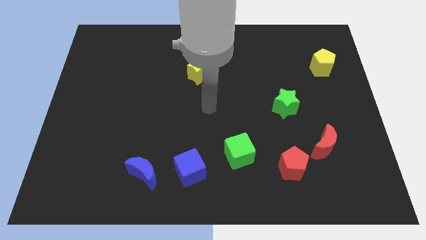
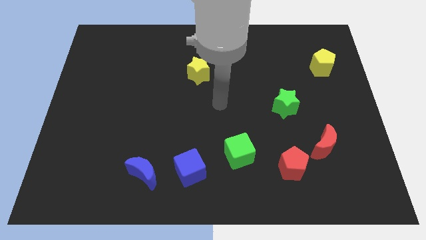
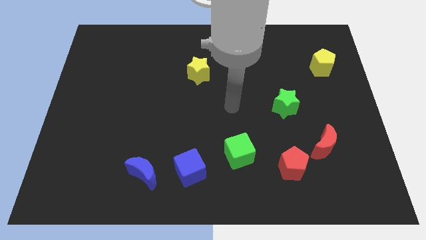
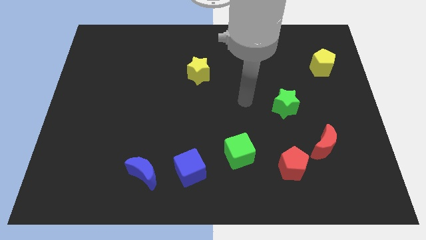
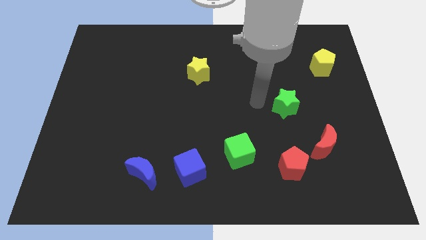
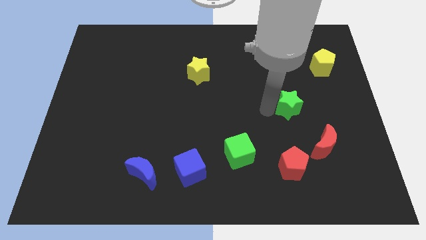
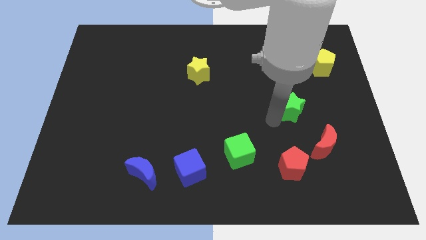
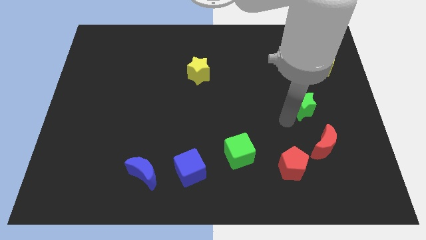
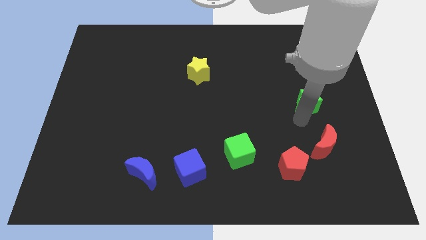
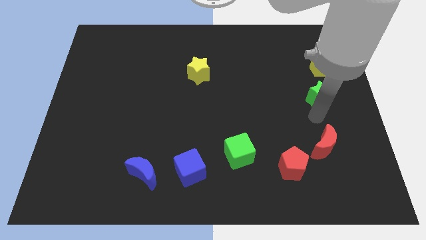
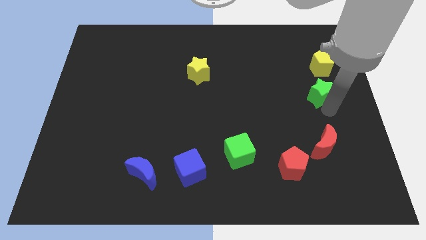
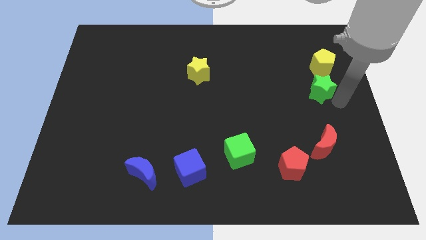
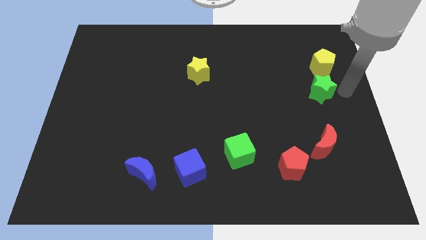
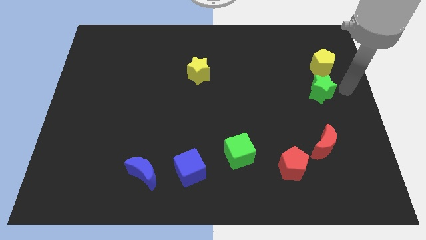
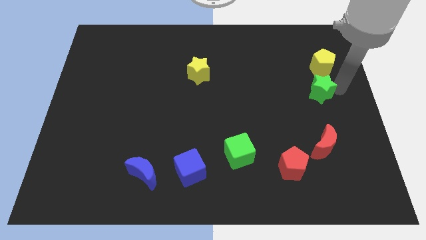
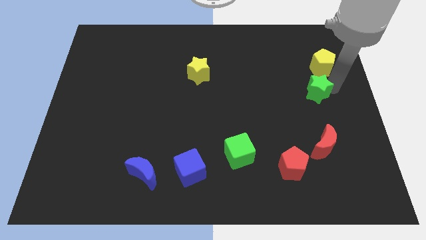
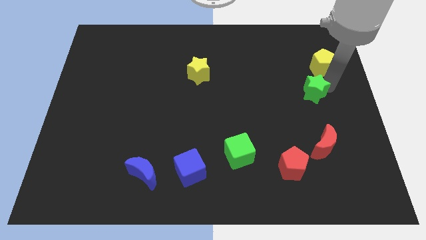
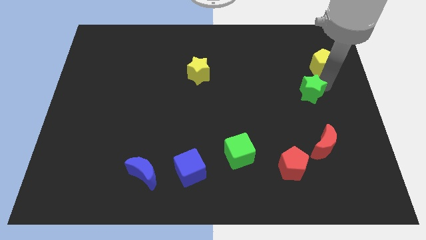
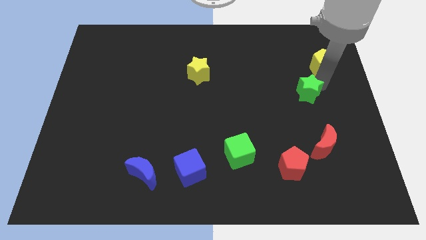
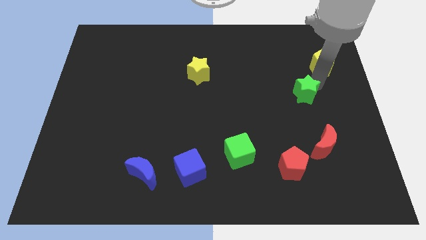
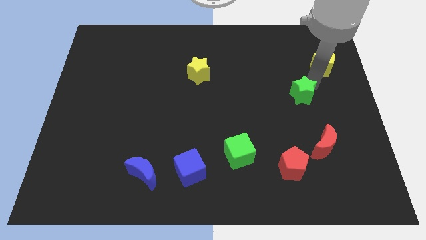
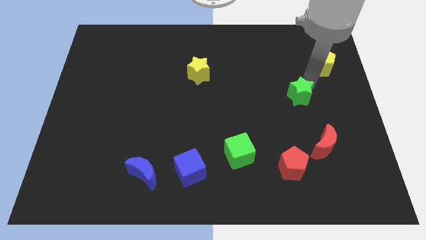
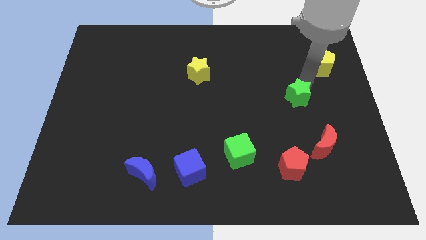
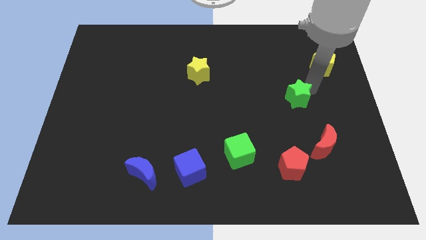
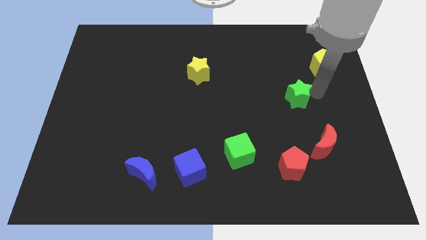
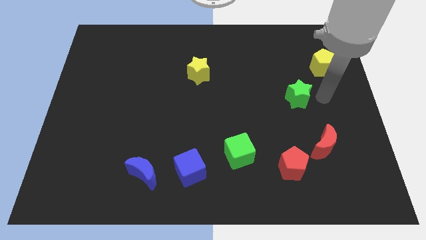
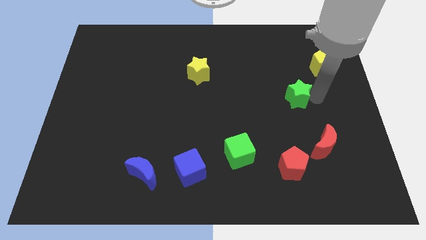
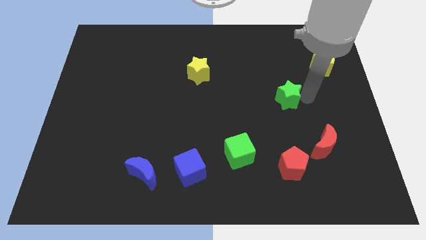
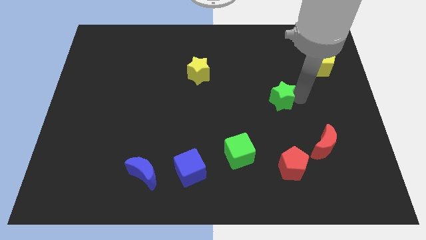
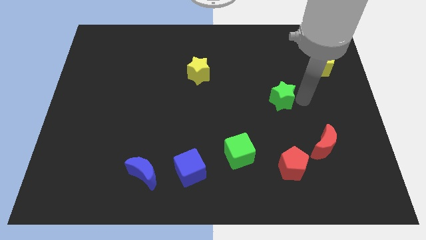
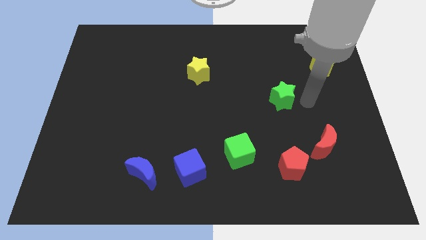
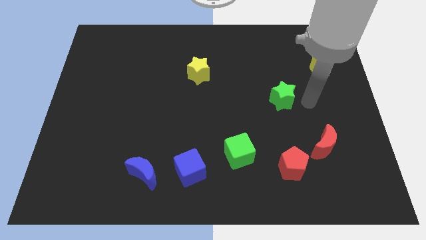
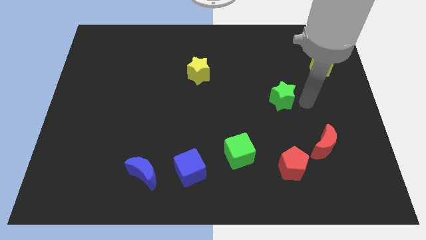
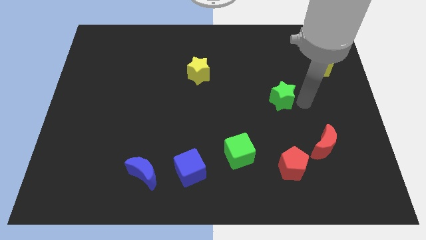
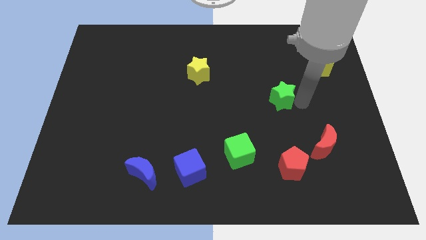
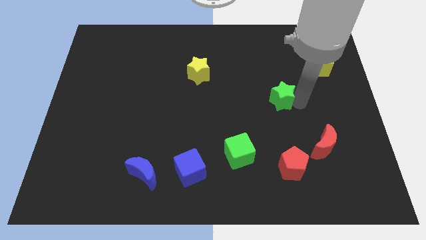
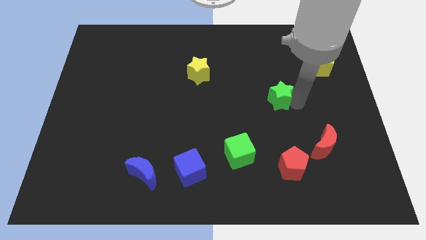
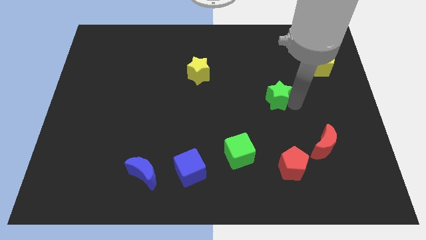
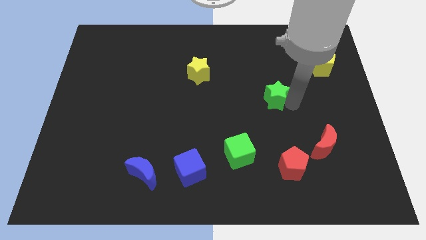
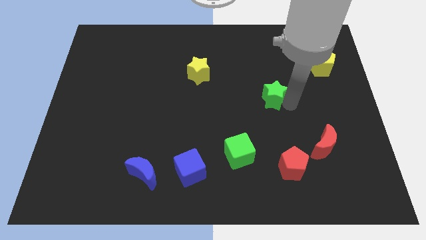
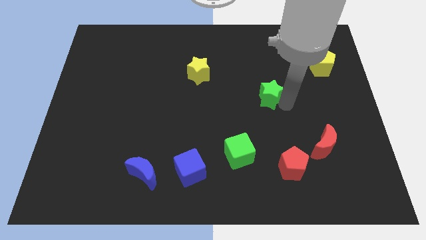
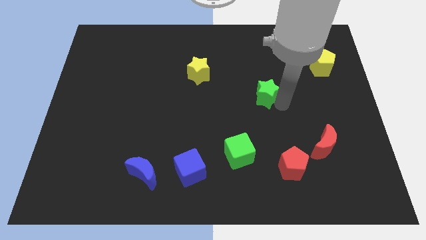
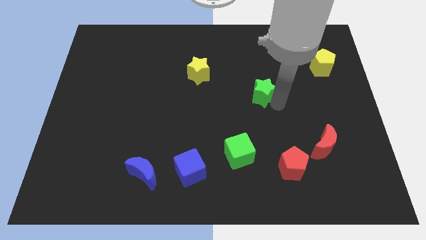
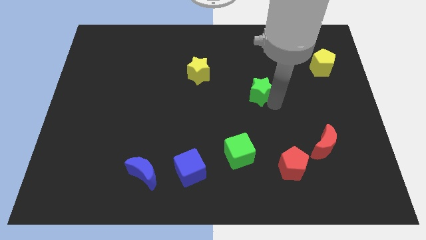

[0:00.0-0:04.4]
slightly slide the green star upwards and to the left diagonally

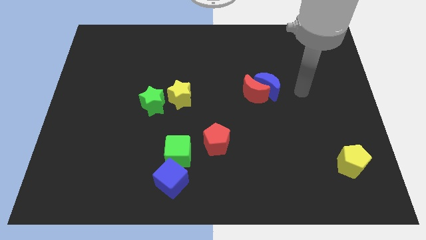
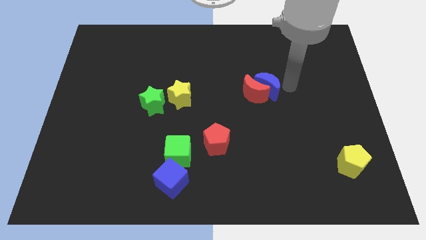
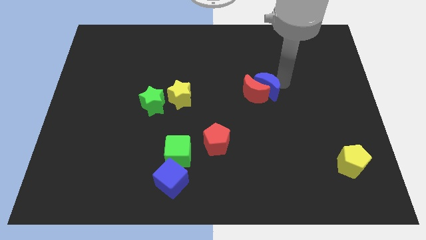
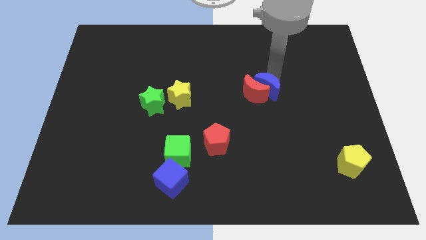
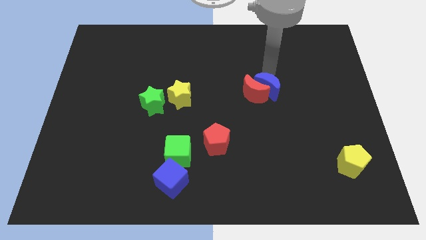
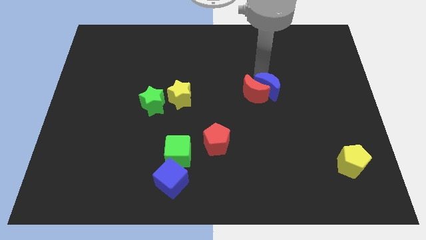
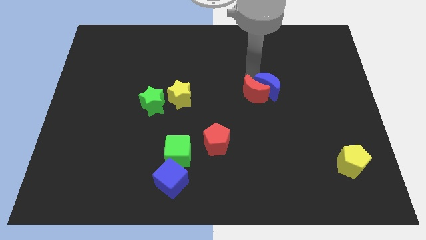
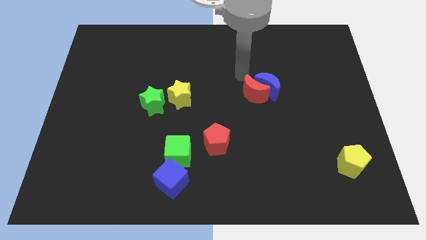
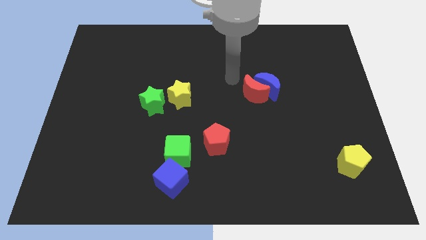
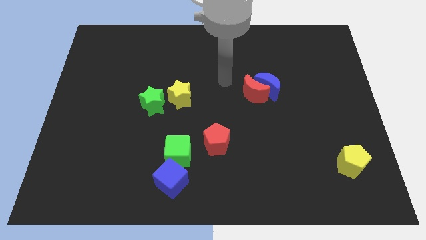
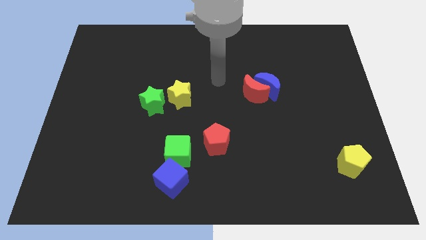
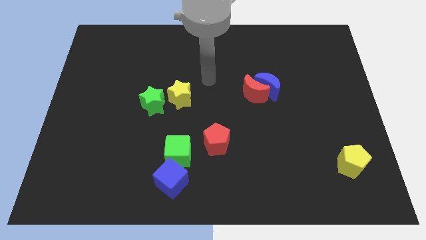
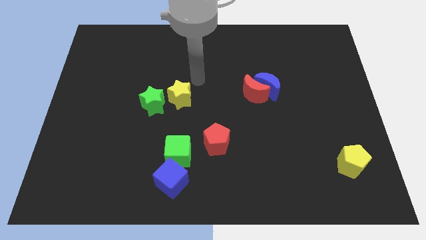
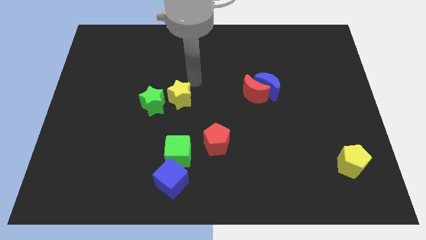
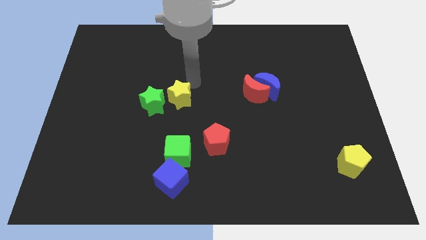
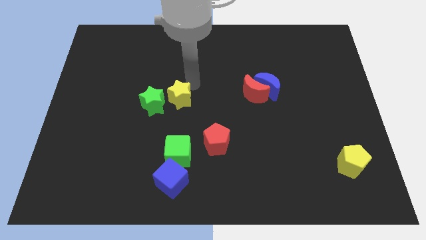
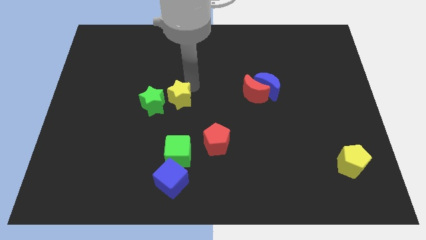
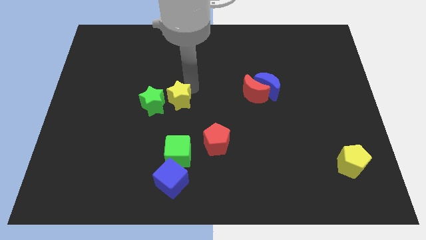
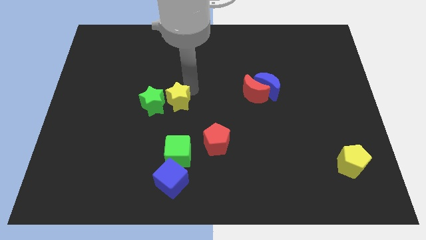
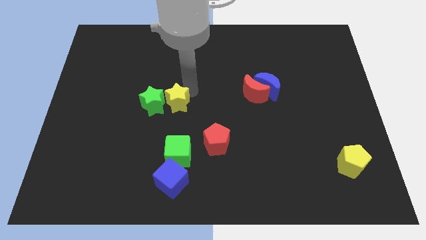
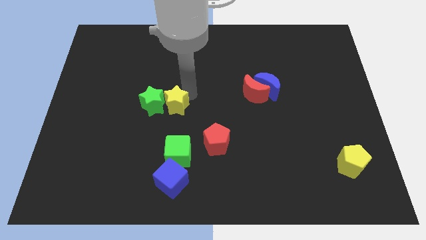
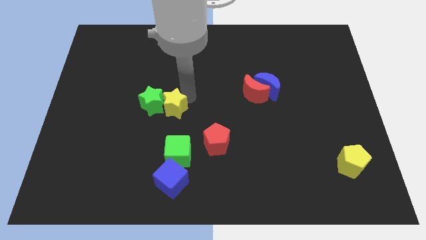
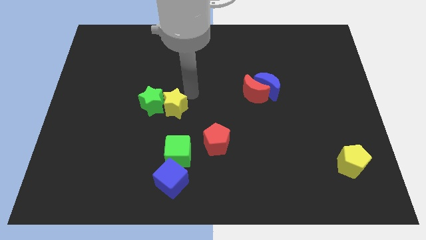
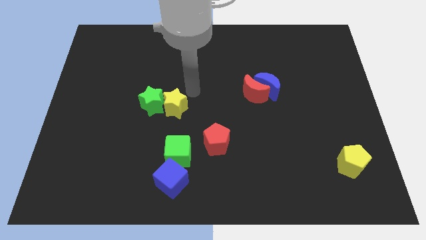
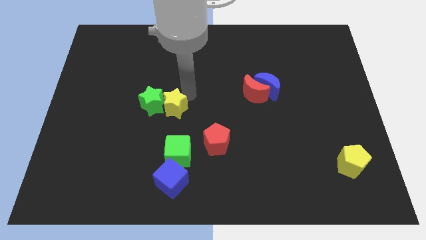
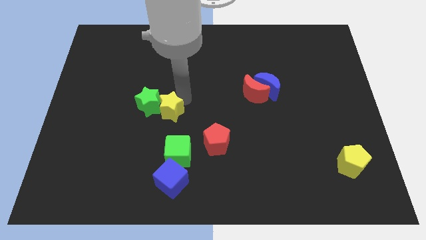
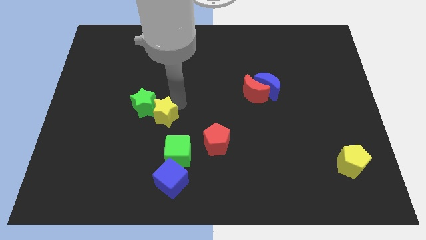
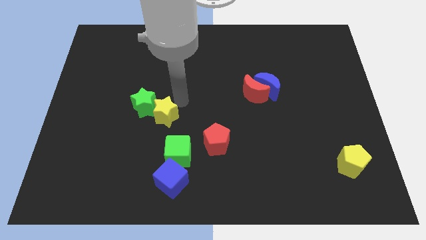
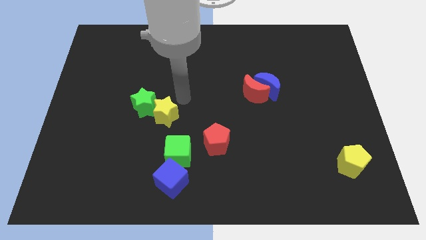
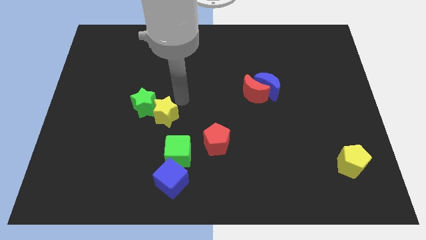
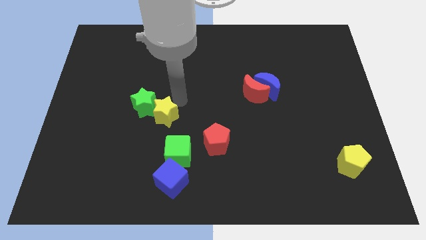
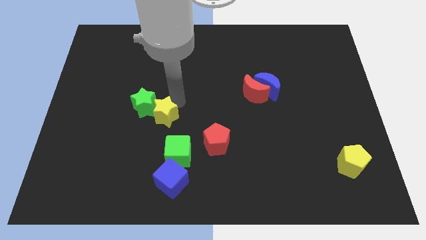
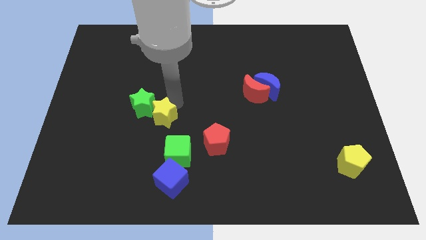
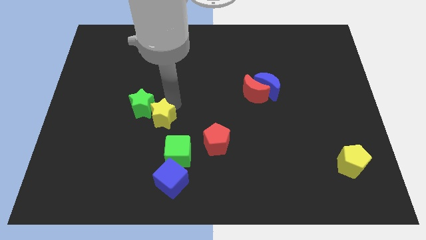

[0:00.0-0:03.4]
slightly slide the yellow star downwards and then left
